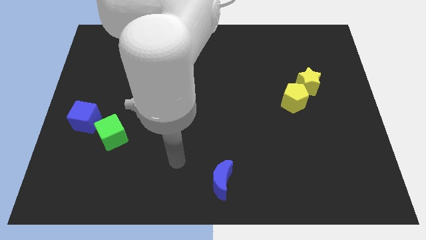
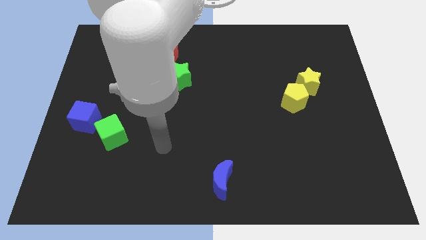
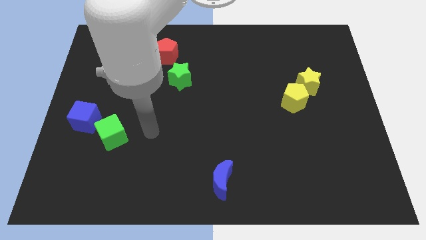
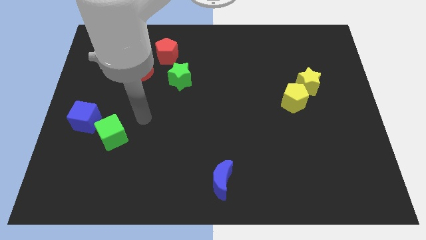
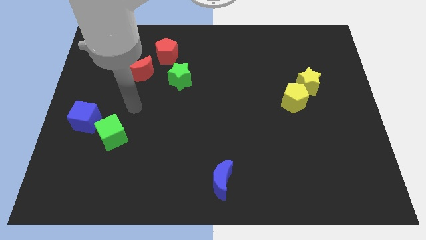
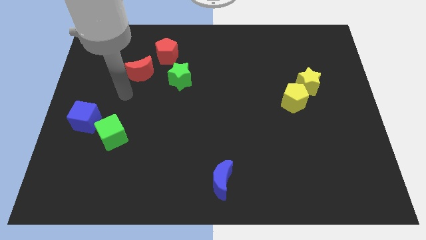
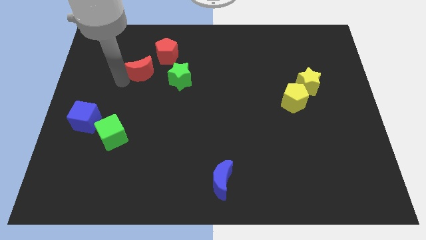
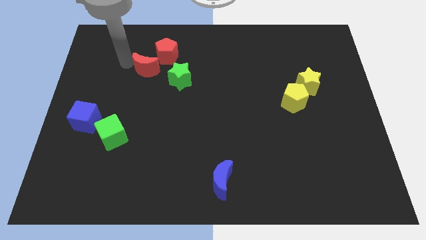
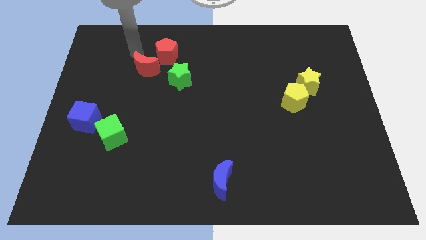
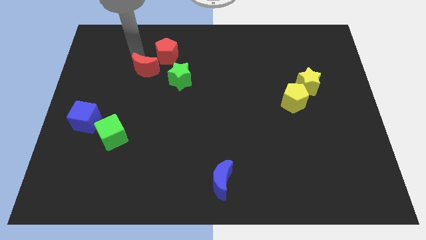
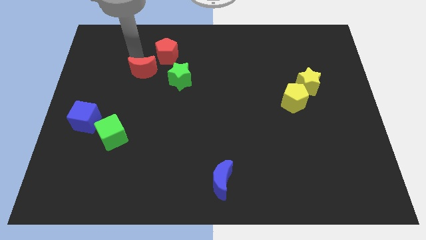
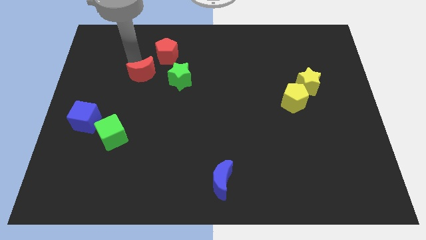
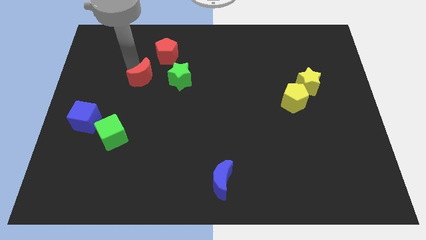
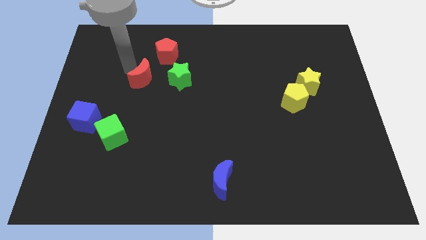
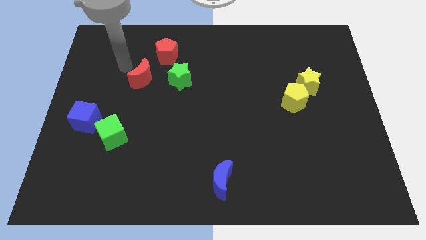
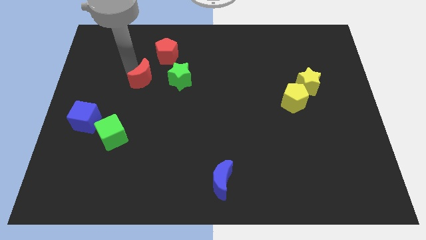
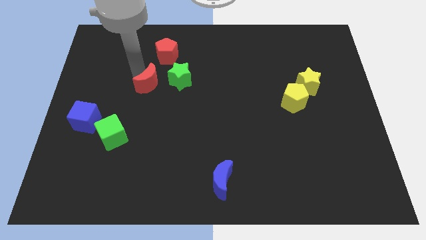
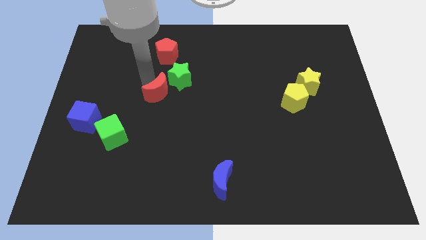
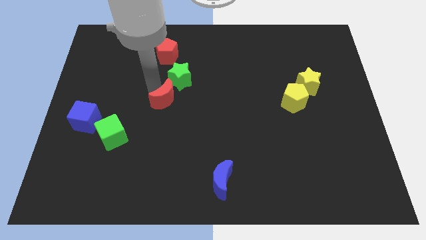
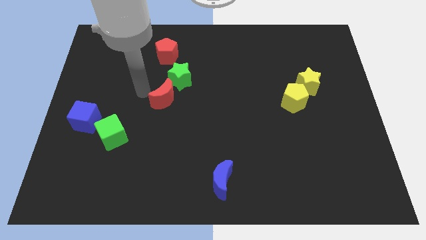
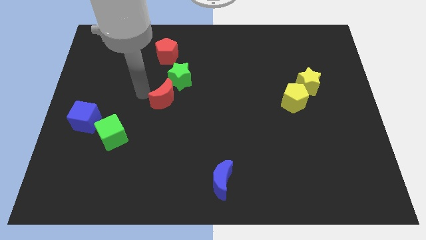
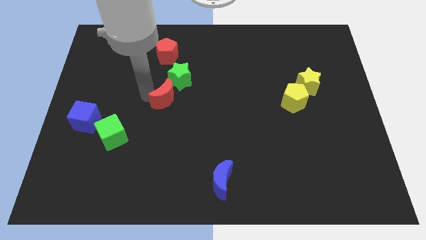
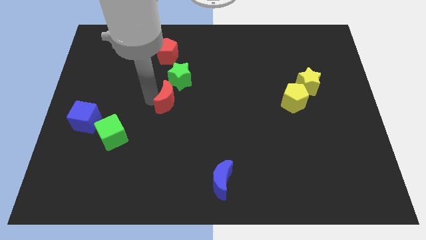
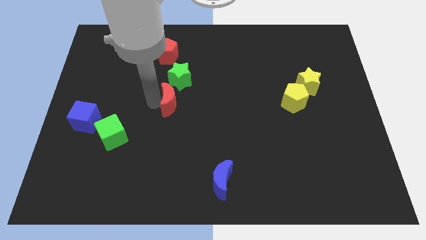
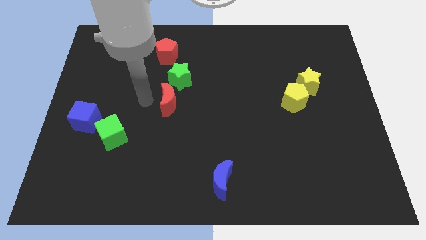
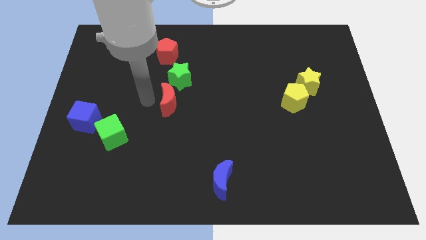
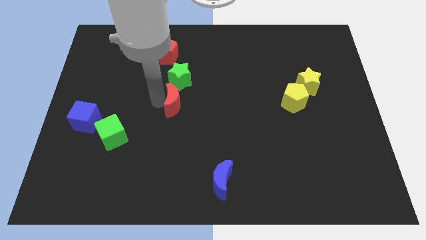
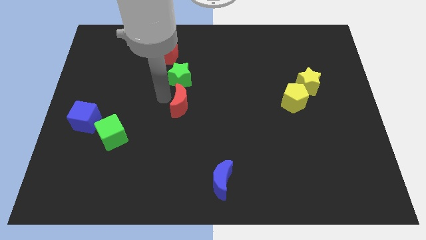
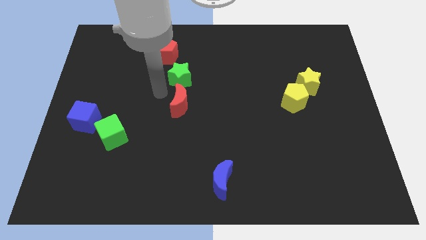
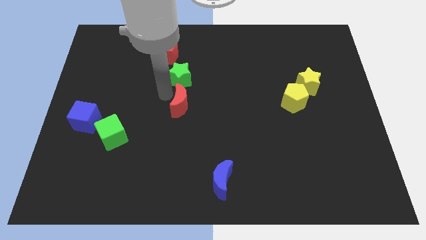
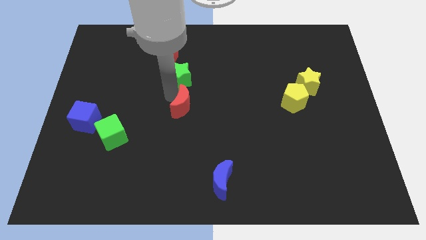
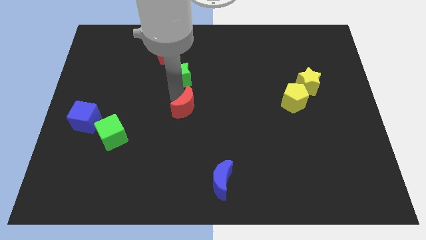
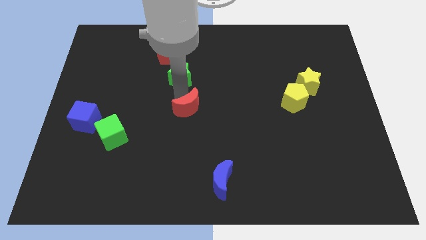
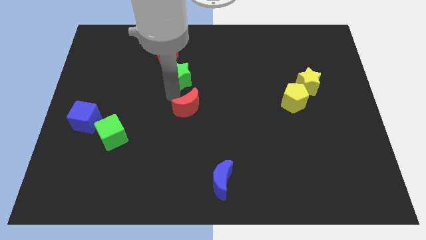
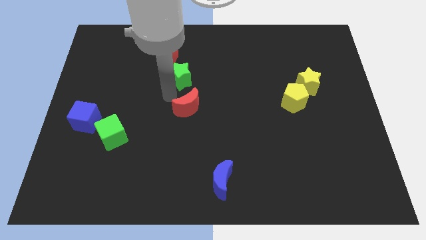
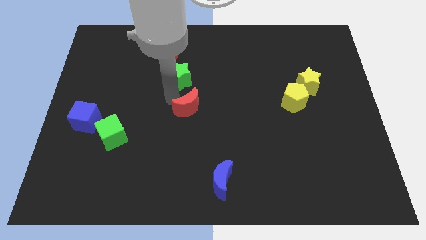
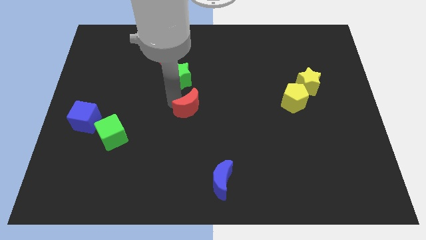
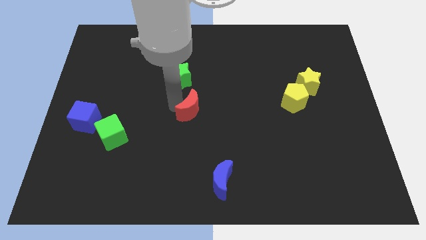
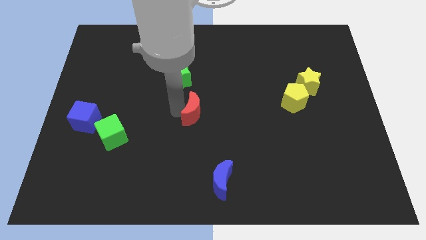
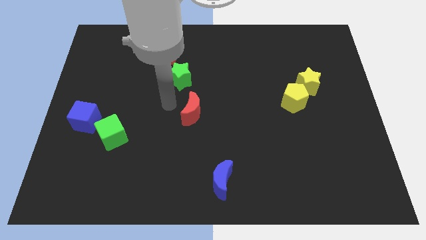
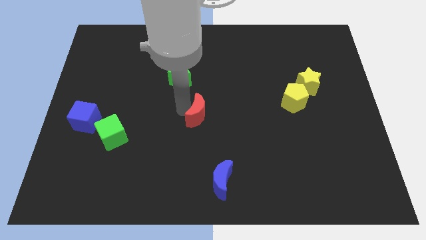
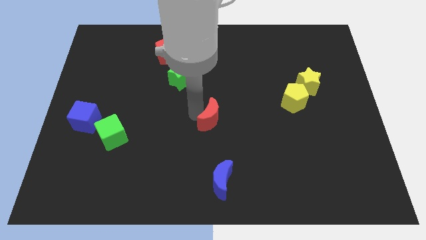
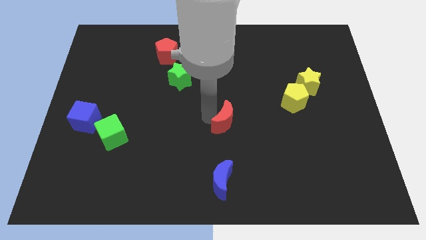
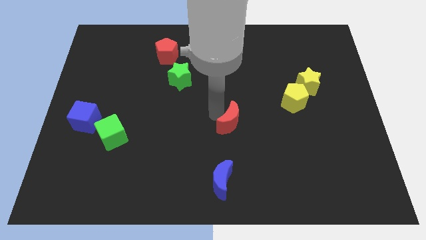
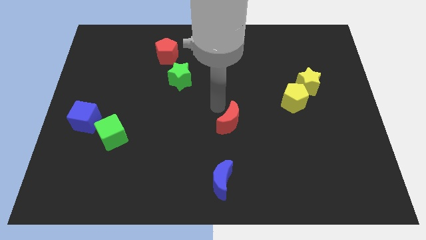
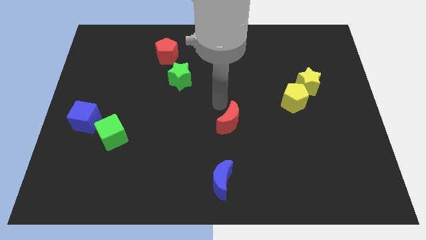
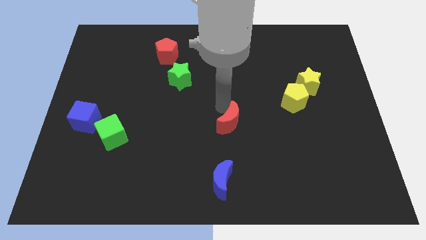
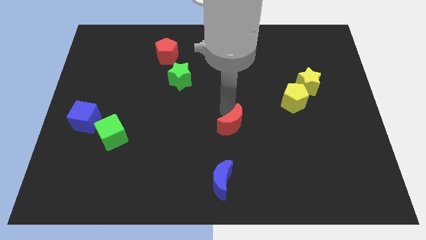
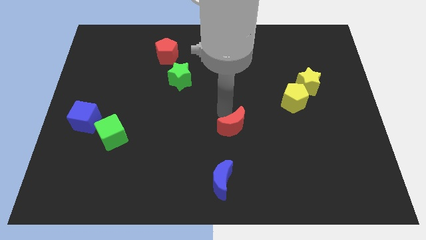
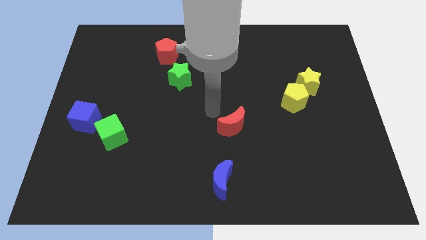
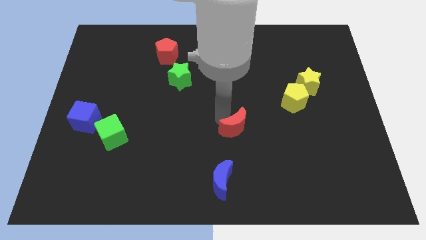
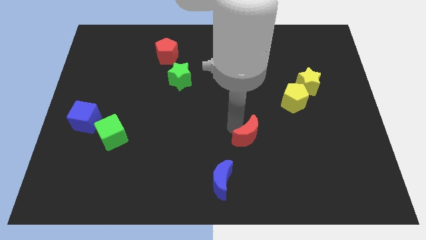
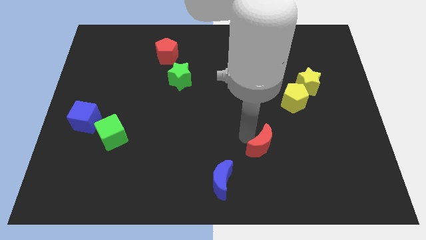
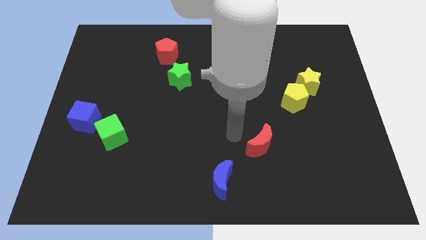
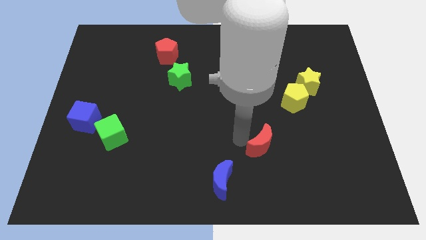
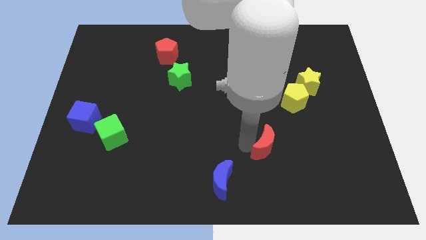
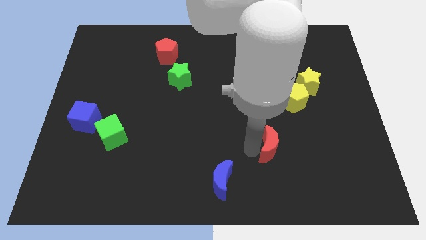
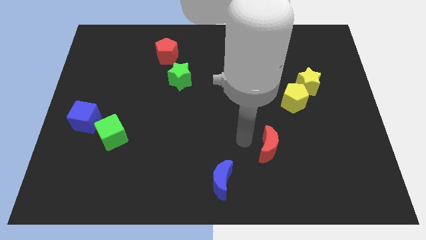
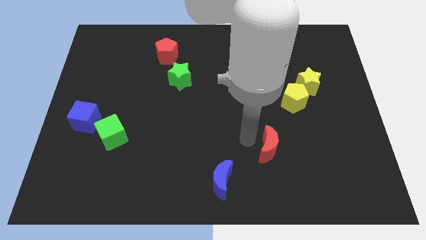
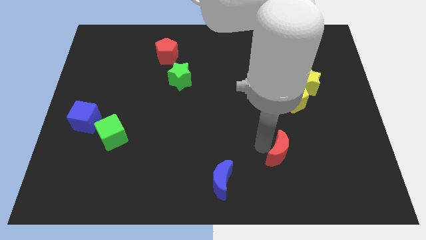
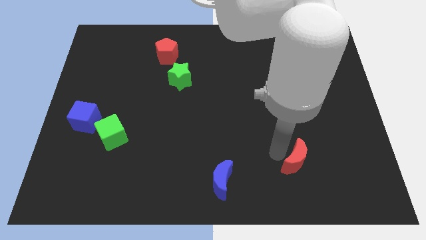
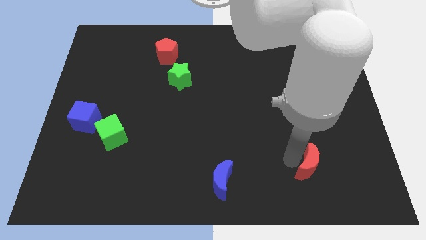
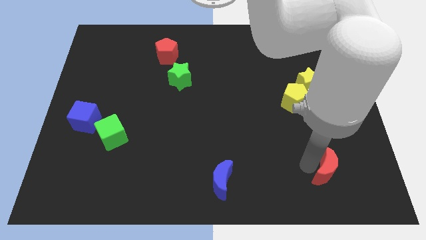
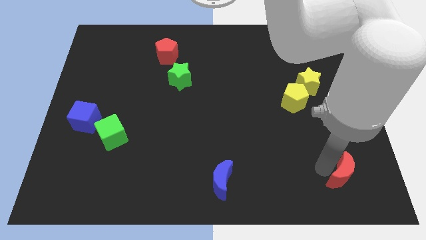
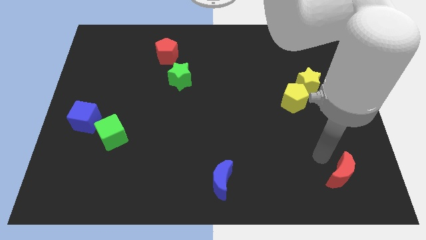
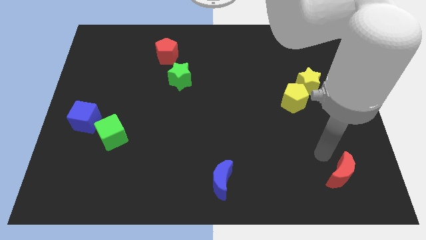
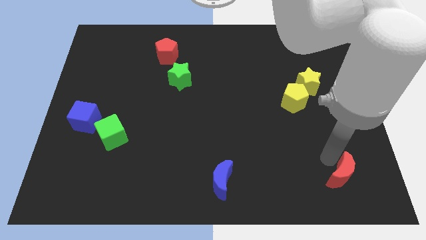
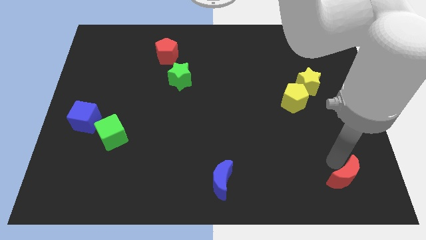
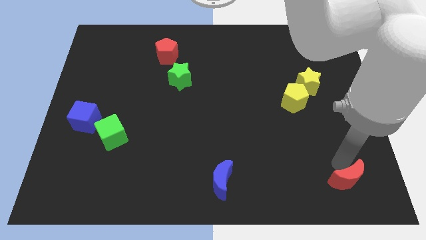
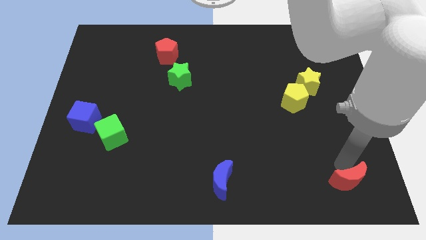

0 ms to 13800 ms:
move the red moon to the lower right corner
